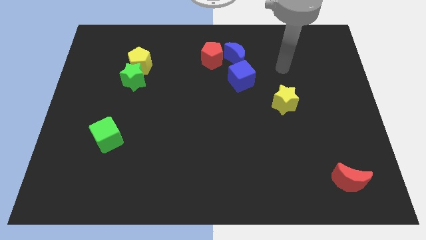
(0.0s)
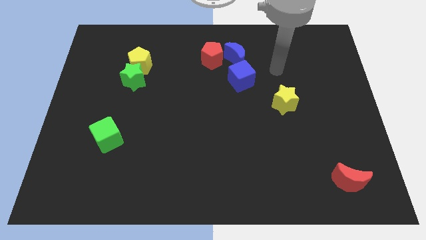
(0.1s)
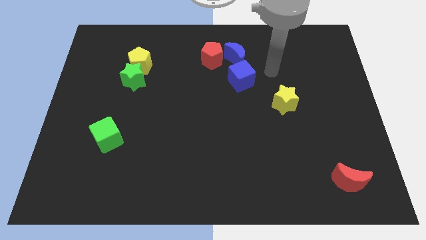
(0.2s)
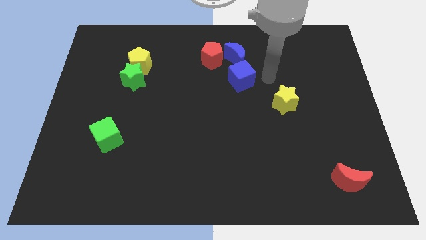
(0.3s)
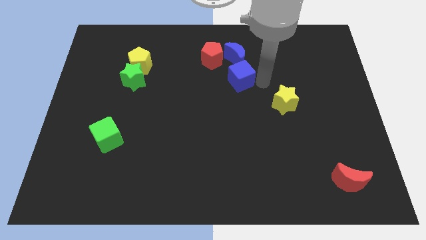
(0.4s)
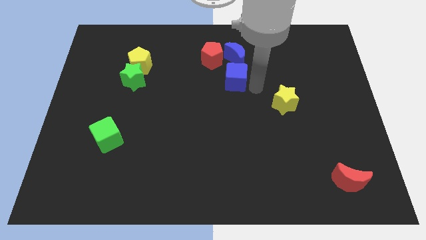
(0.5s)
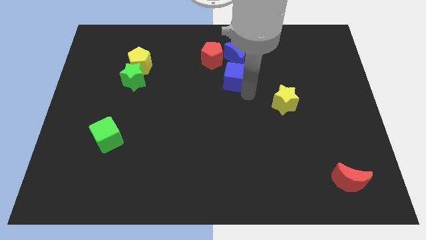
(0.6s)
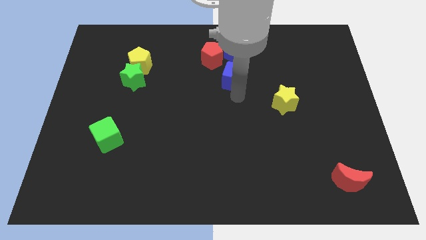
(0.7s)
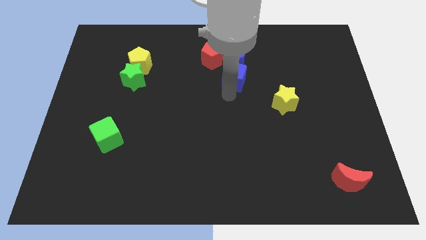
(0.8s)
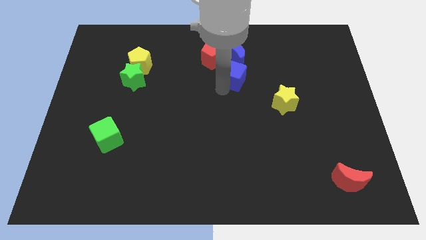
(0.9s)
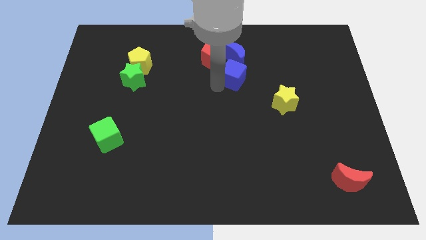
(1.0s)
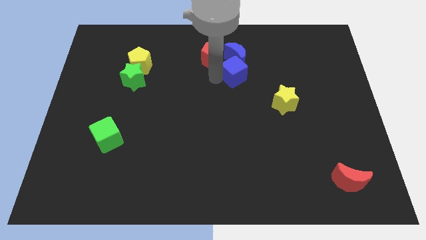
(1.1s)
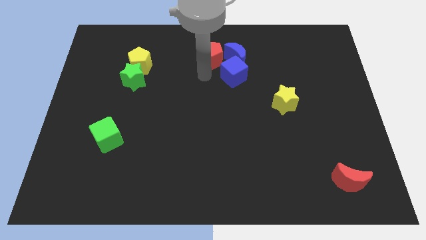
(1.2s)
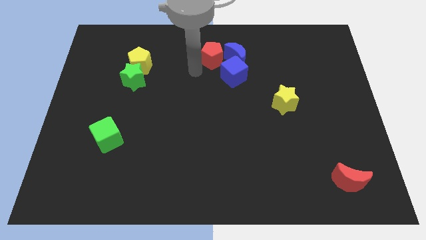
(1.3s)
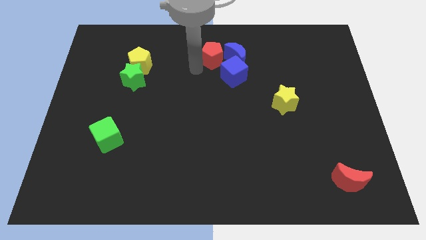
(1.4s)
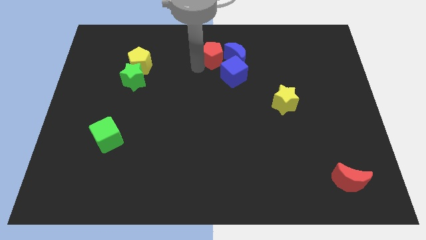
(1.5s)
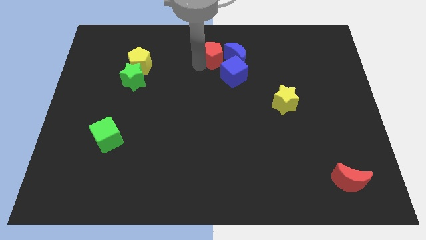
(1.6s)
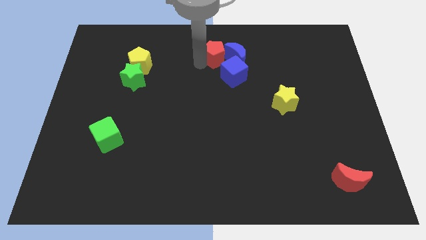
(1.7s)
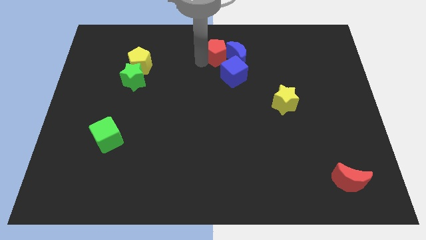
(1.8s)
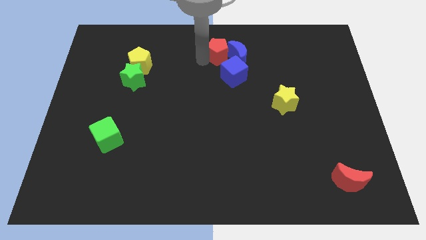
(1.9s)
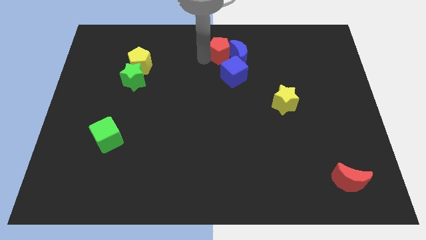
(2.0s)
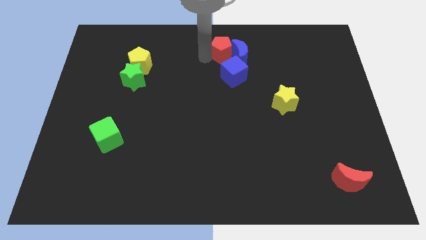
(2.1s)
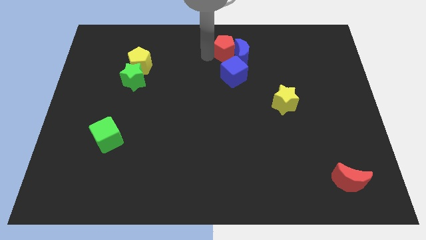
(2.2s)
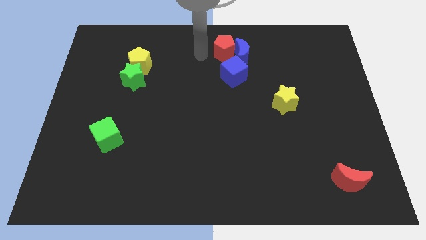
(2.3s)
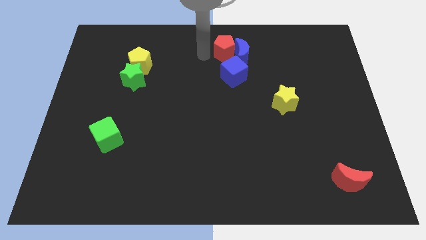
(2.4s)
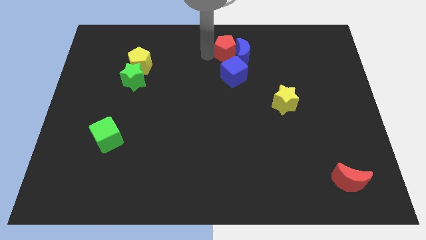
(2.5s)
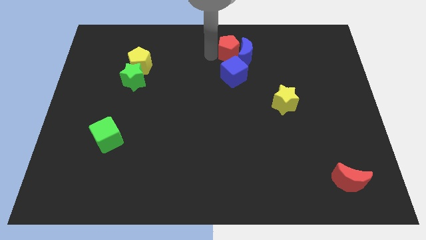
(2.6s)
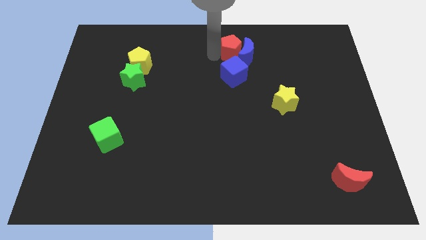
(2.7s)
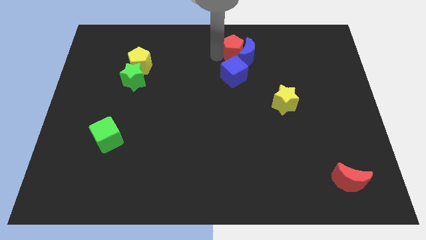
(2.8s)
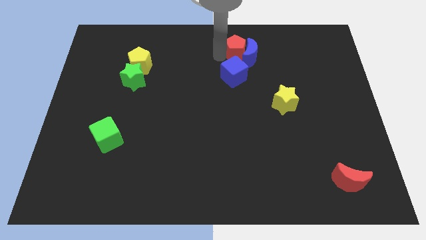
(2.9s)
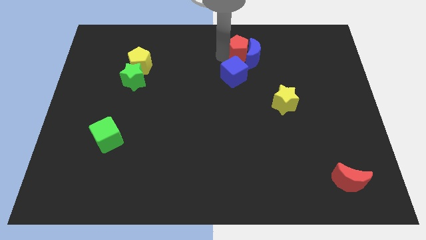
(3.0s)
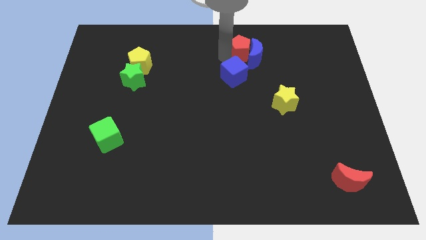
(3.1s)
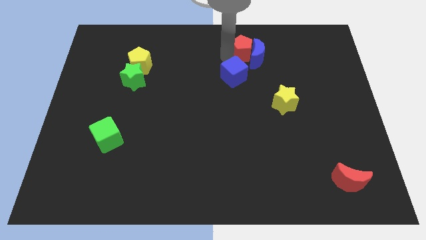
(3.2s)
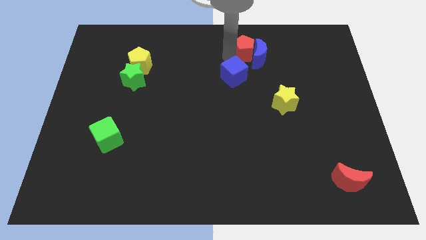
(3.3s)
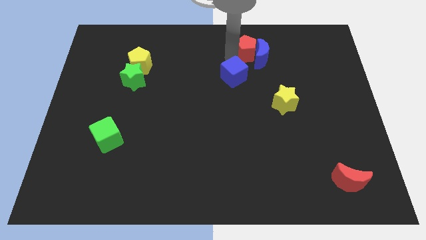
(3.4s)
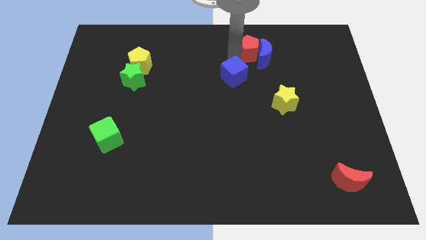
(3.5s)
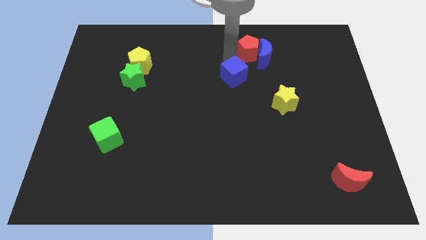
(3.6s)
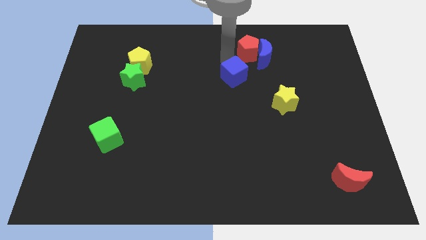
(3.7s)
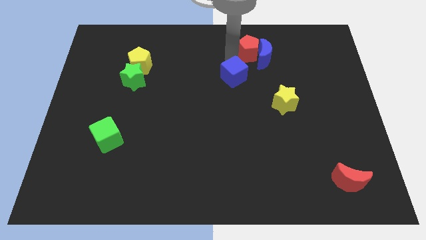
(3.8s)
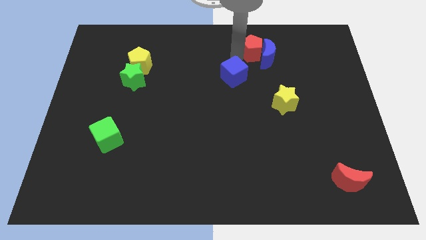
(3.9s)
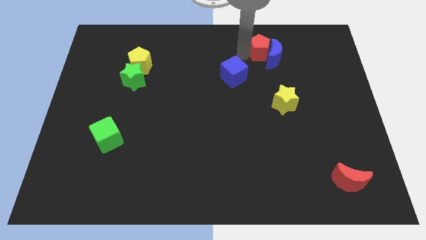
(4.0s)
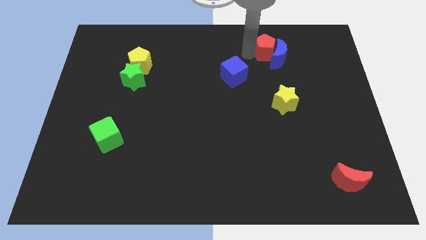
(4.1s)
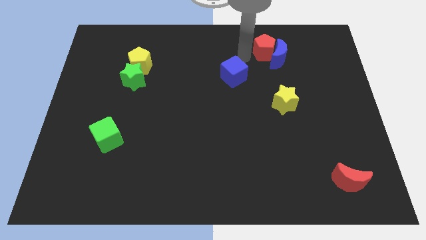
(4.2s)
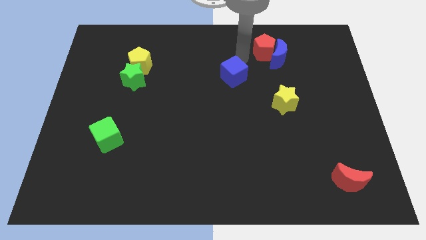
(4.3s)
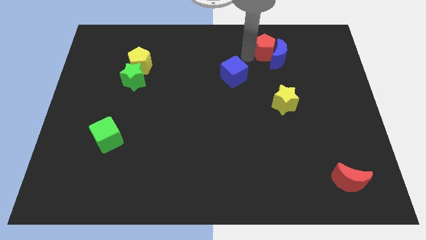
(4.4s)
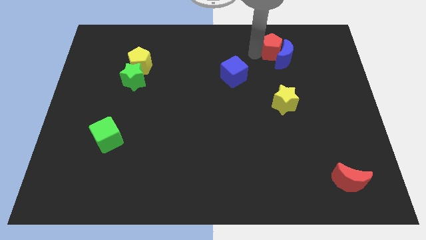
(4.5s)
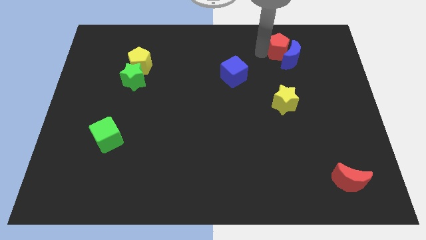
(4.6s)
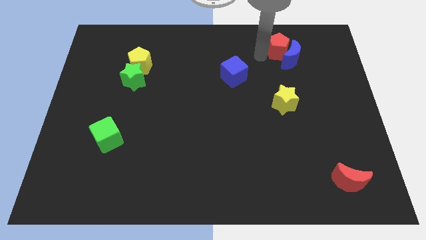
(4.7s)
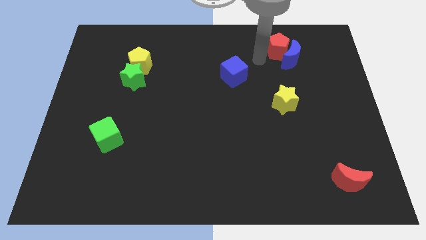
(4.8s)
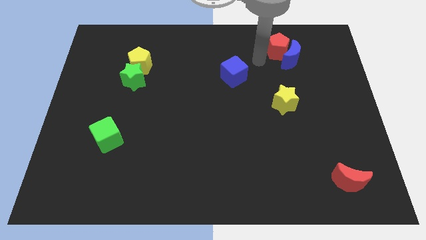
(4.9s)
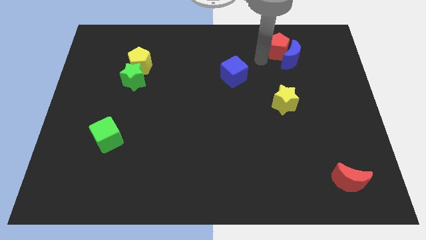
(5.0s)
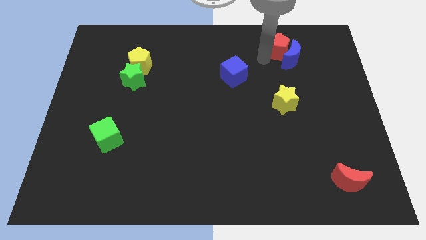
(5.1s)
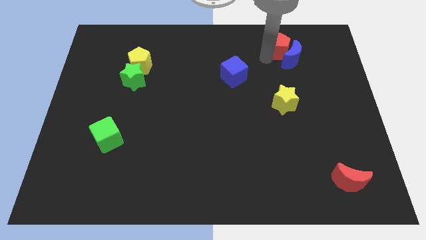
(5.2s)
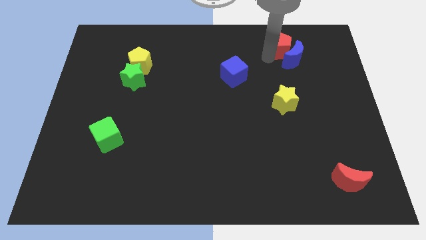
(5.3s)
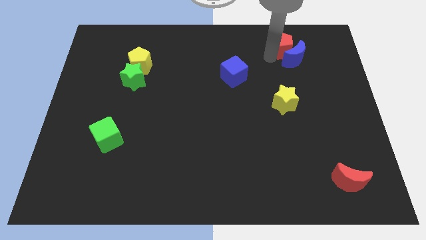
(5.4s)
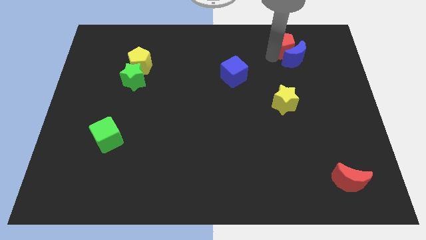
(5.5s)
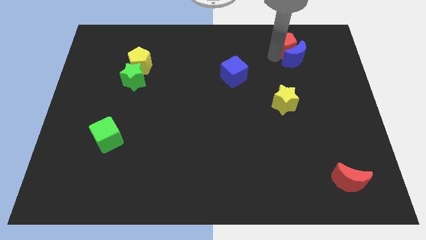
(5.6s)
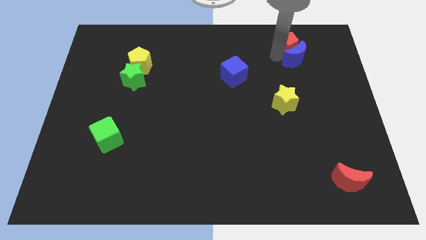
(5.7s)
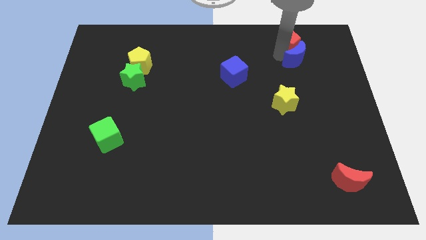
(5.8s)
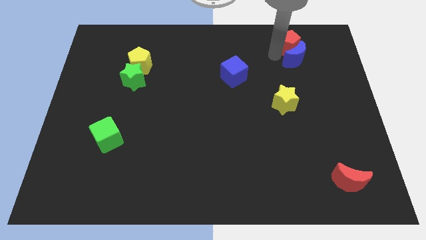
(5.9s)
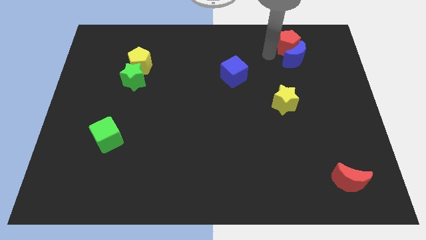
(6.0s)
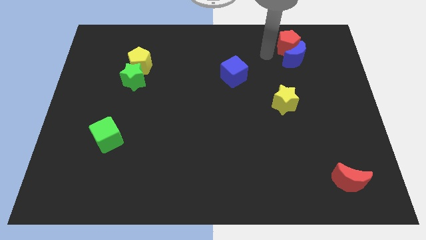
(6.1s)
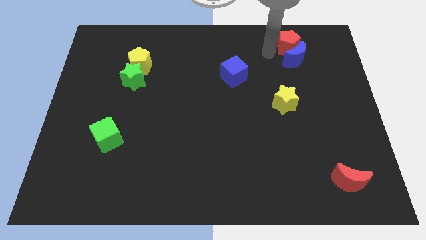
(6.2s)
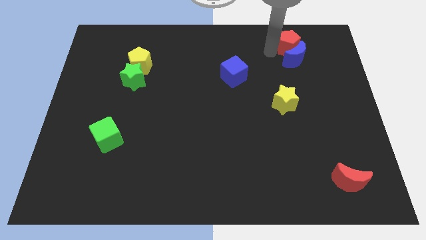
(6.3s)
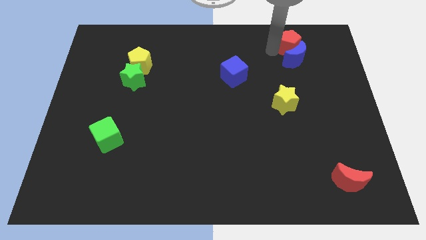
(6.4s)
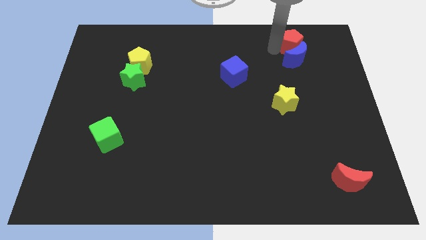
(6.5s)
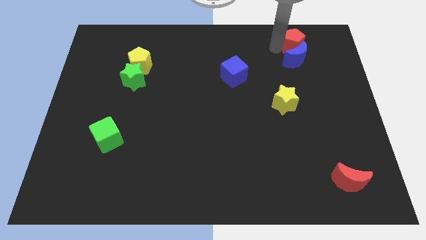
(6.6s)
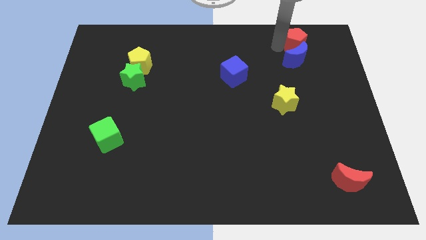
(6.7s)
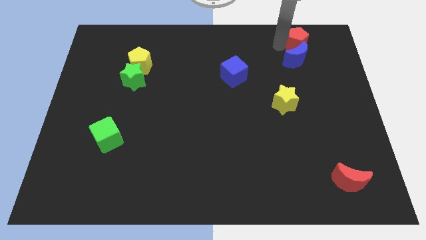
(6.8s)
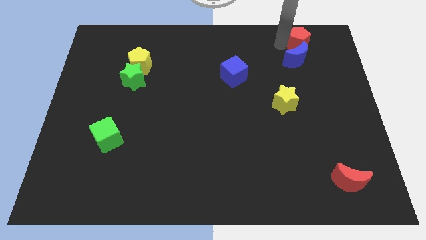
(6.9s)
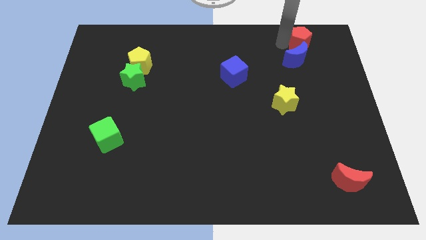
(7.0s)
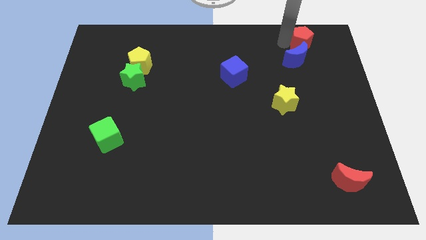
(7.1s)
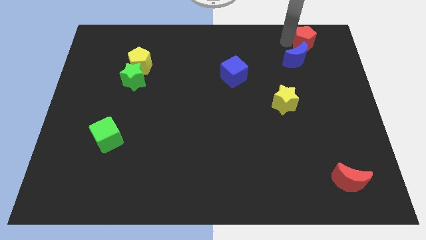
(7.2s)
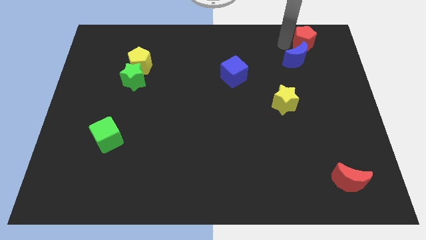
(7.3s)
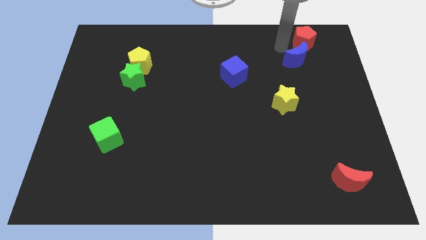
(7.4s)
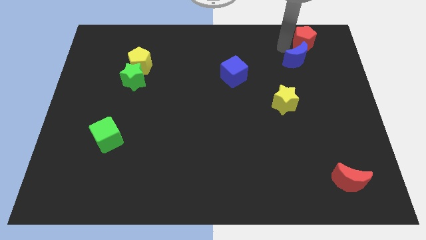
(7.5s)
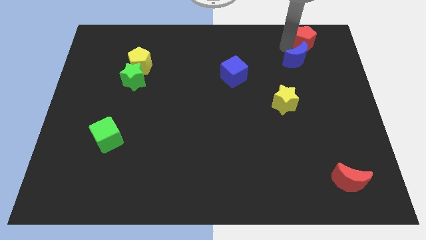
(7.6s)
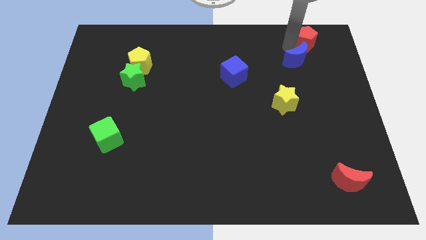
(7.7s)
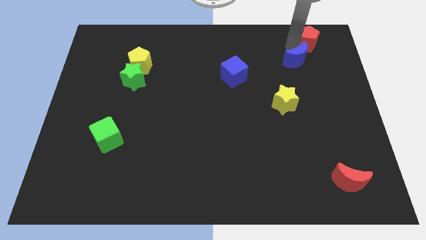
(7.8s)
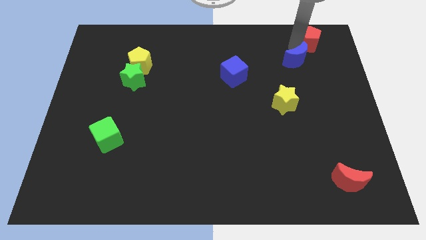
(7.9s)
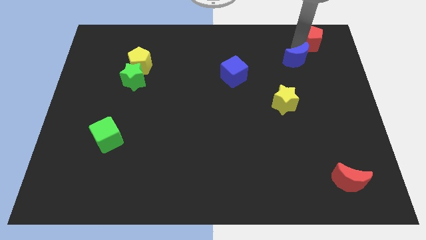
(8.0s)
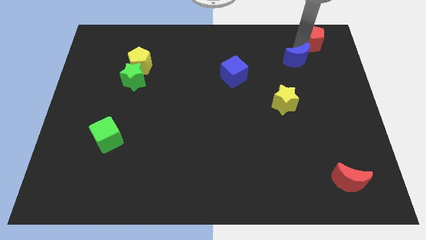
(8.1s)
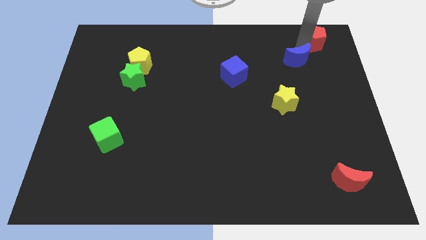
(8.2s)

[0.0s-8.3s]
push the red pentagon to the top right
